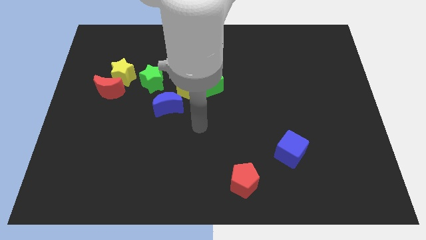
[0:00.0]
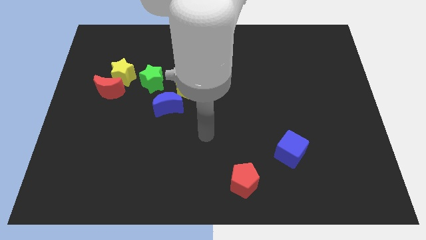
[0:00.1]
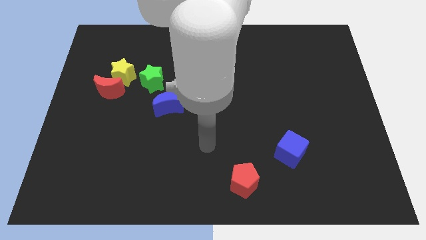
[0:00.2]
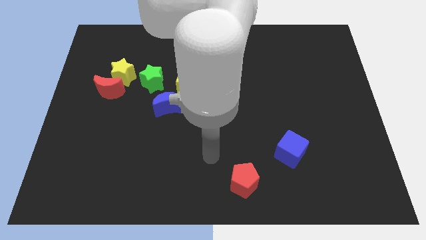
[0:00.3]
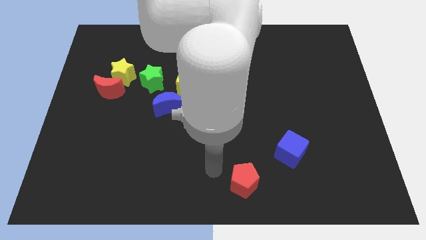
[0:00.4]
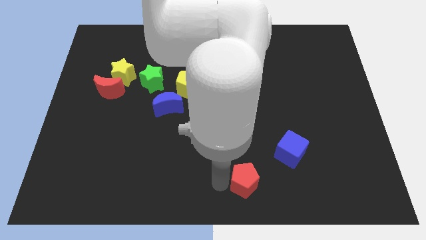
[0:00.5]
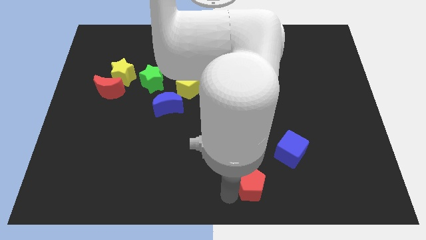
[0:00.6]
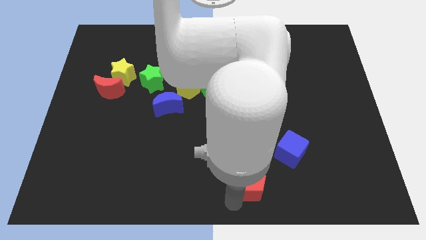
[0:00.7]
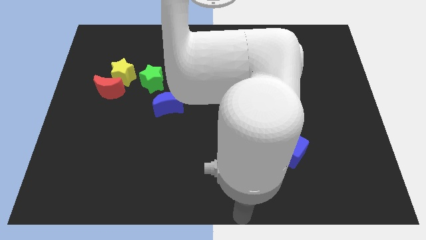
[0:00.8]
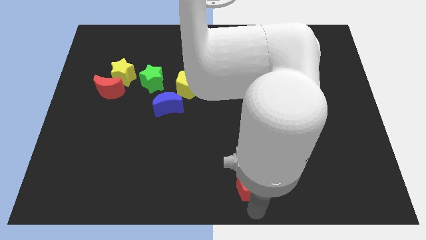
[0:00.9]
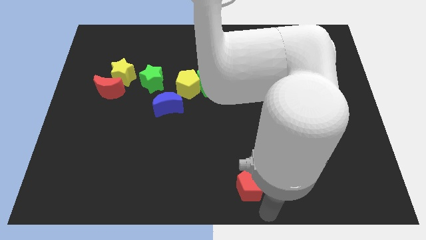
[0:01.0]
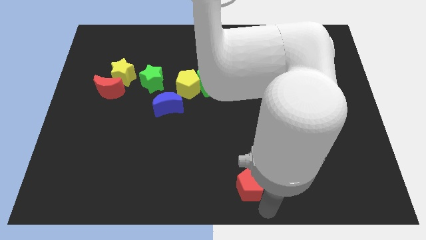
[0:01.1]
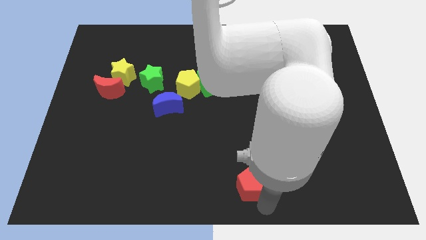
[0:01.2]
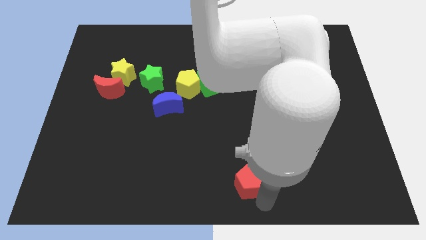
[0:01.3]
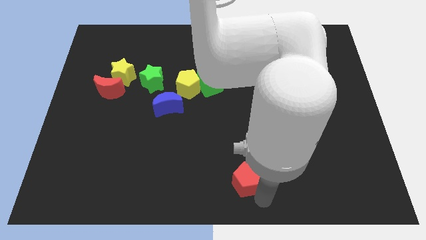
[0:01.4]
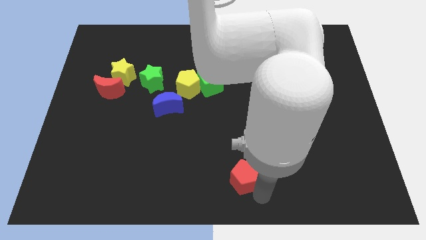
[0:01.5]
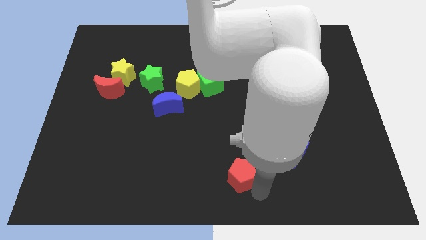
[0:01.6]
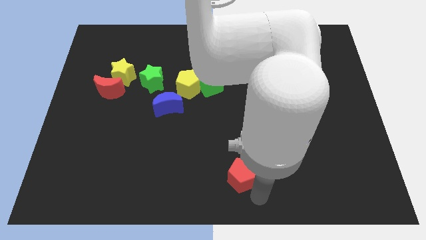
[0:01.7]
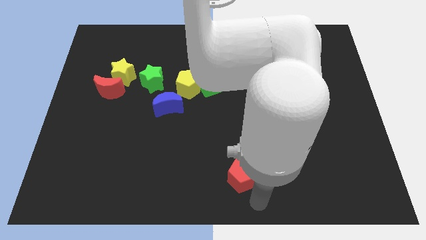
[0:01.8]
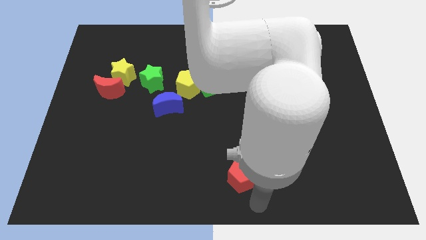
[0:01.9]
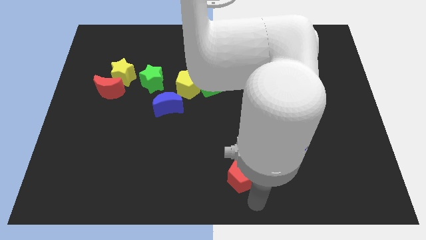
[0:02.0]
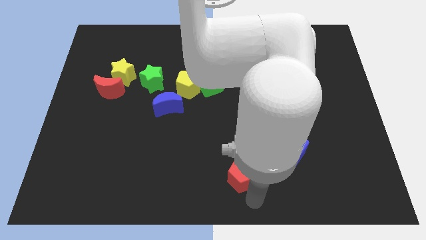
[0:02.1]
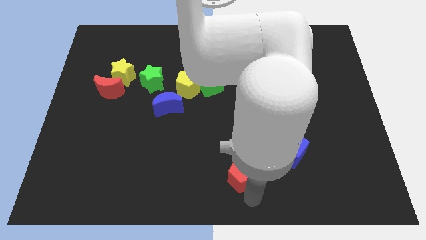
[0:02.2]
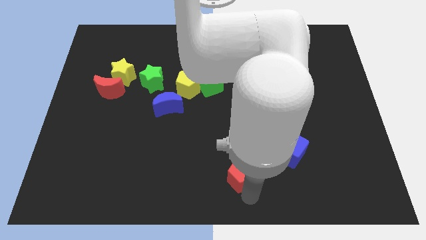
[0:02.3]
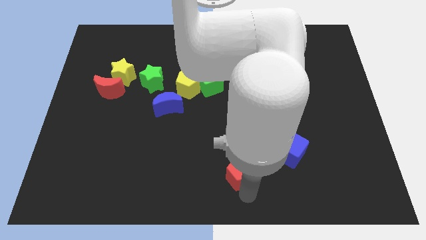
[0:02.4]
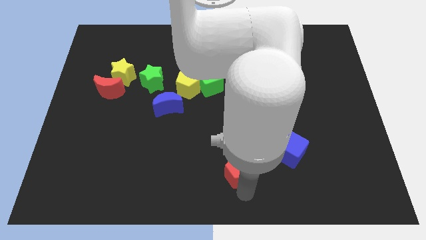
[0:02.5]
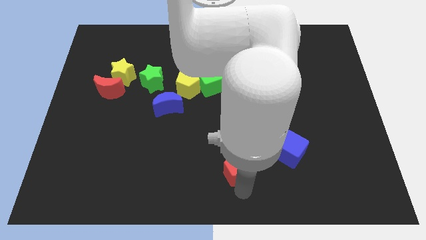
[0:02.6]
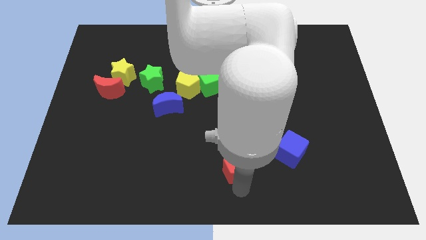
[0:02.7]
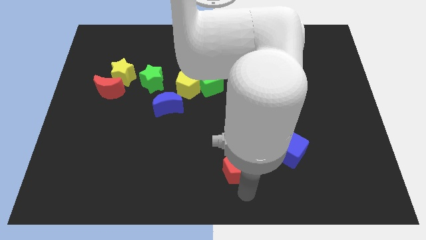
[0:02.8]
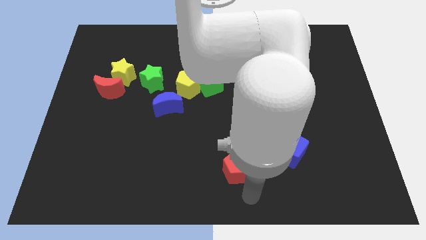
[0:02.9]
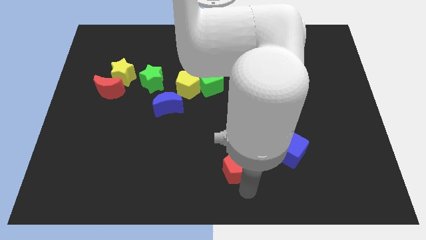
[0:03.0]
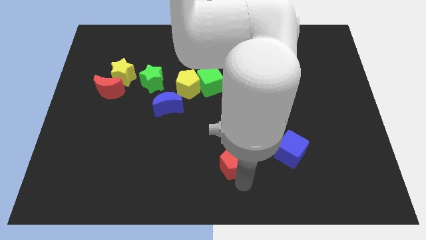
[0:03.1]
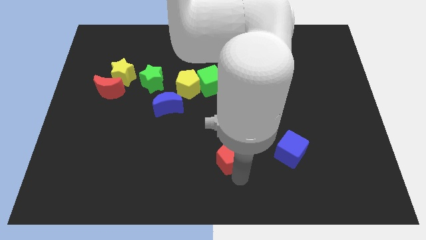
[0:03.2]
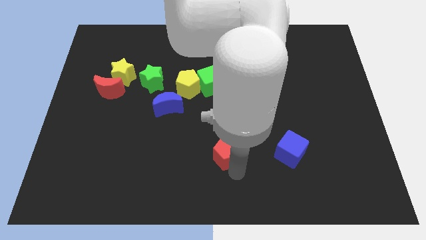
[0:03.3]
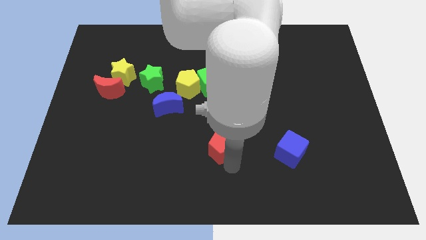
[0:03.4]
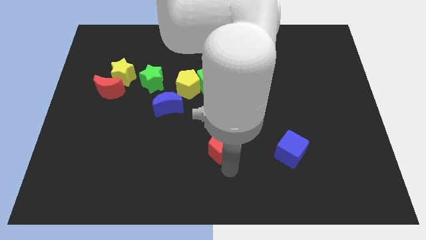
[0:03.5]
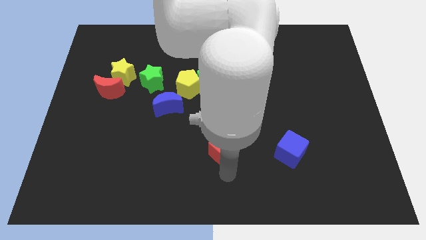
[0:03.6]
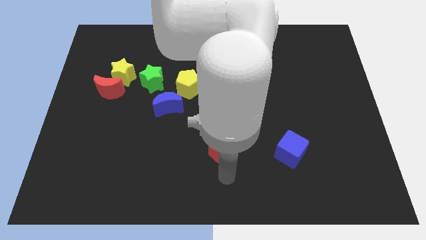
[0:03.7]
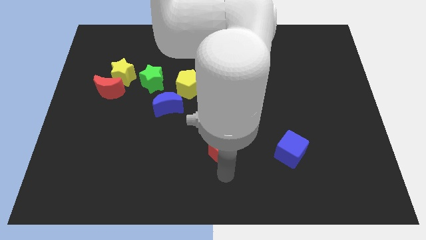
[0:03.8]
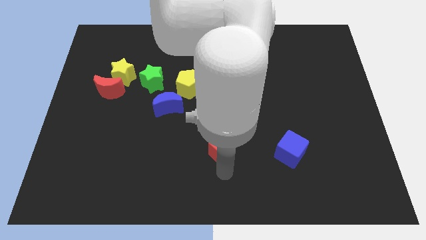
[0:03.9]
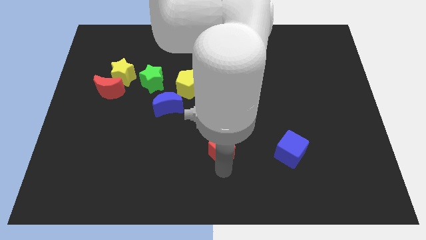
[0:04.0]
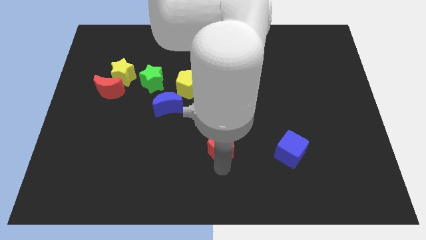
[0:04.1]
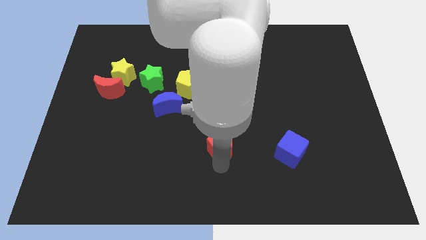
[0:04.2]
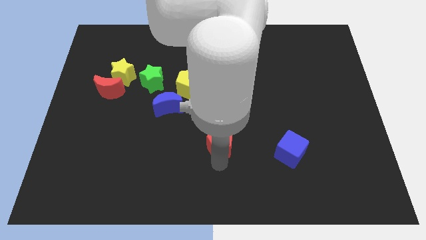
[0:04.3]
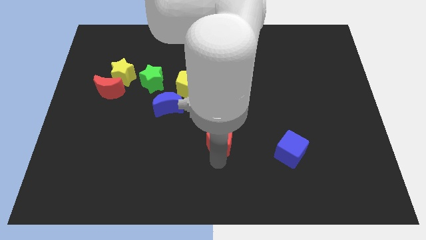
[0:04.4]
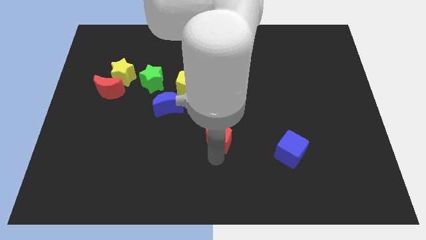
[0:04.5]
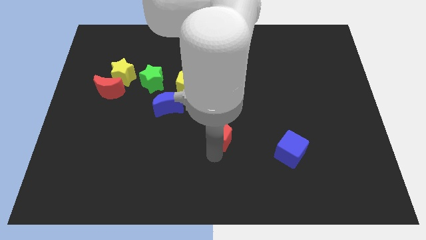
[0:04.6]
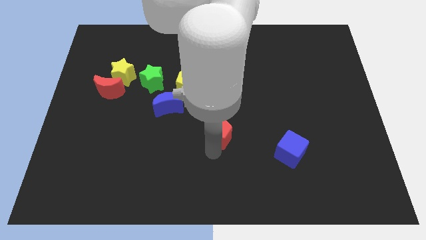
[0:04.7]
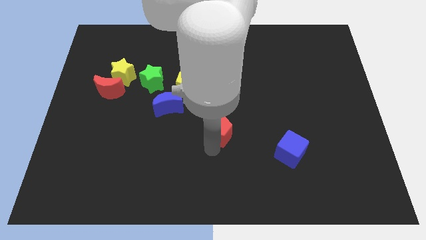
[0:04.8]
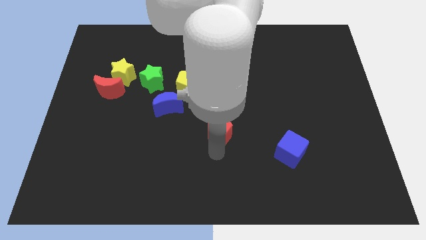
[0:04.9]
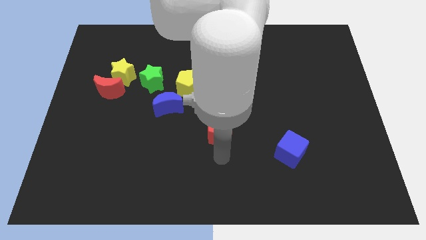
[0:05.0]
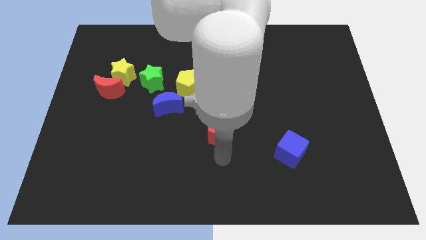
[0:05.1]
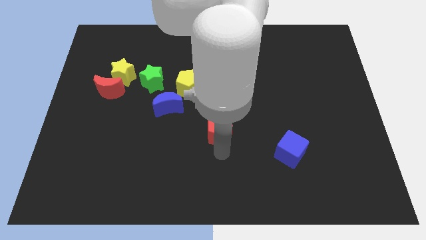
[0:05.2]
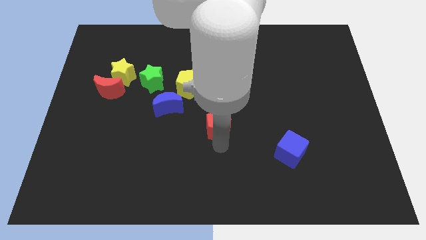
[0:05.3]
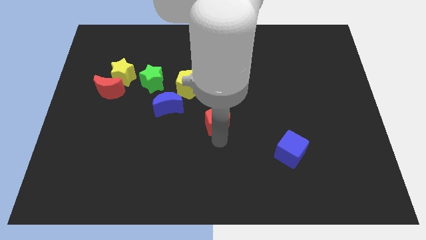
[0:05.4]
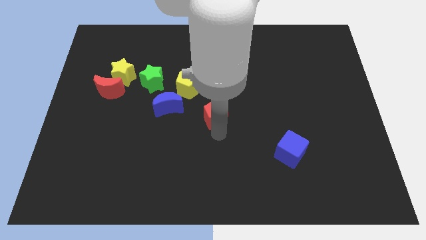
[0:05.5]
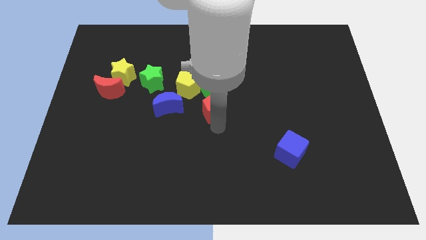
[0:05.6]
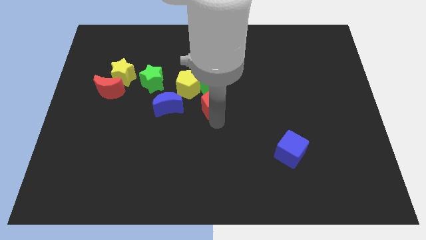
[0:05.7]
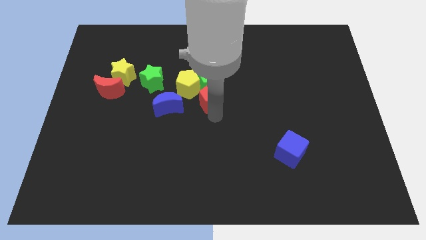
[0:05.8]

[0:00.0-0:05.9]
slide the red pentagon to the green cube

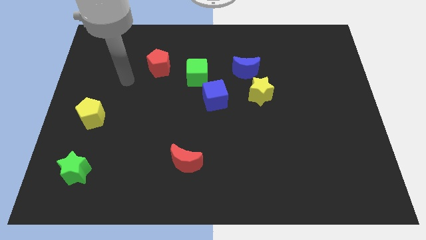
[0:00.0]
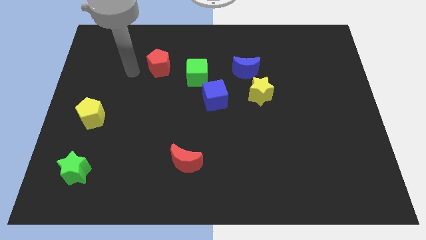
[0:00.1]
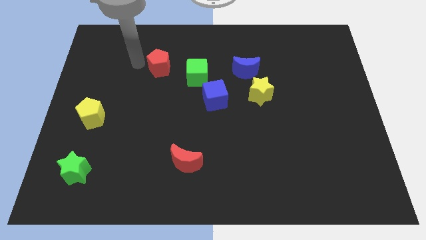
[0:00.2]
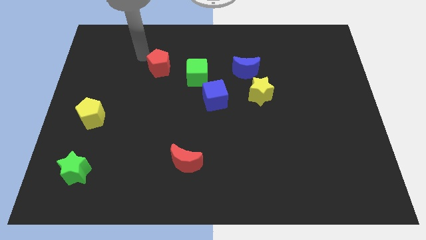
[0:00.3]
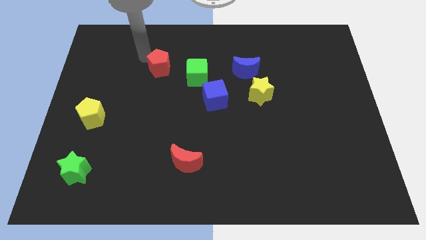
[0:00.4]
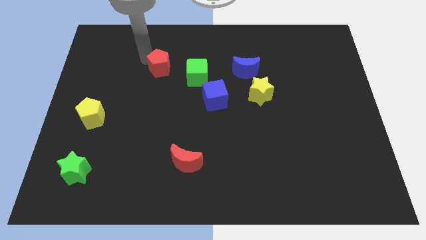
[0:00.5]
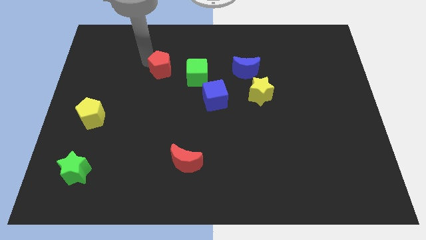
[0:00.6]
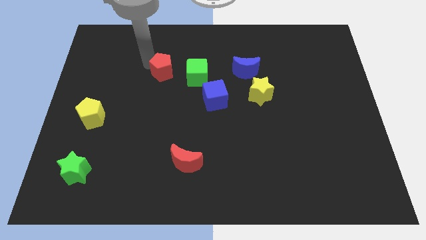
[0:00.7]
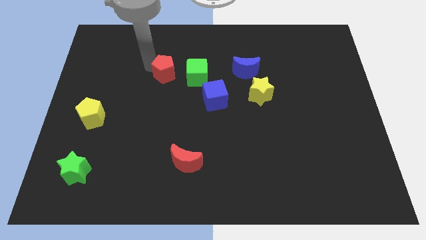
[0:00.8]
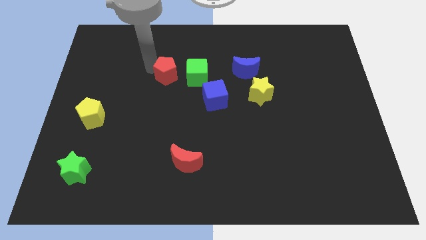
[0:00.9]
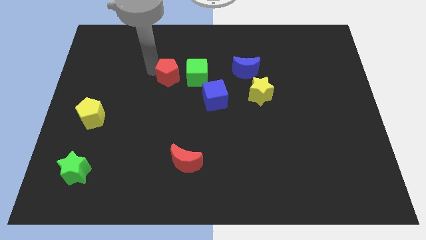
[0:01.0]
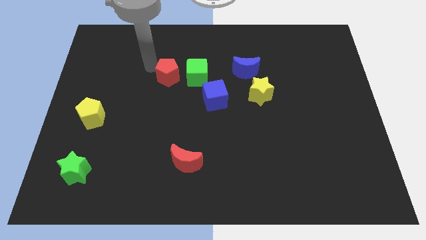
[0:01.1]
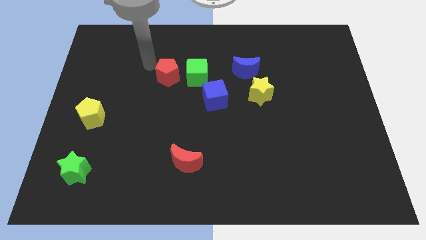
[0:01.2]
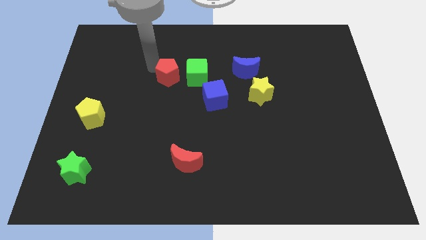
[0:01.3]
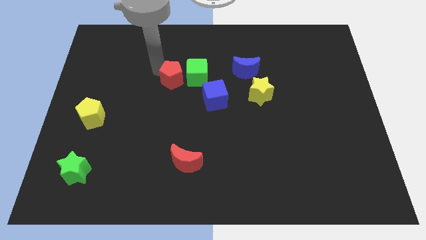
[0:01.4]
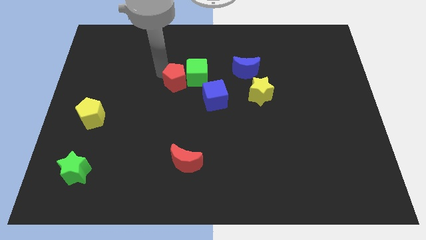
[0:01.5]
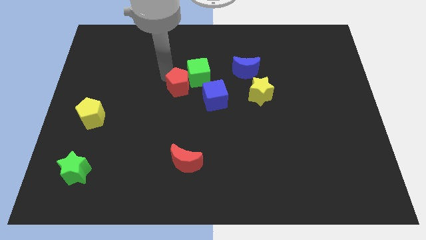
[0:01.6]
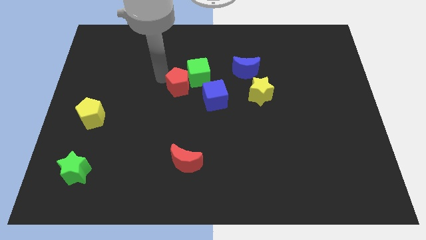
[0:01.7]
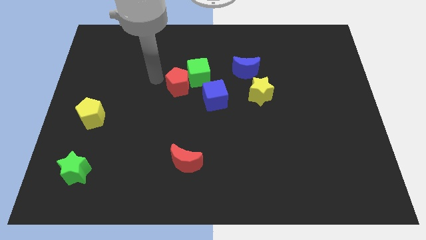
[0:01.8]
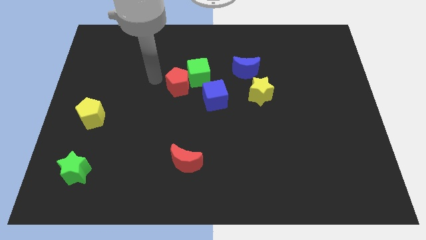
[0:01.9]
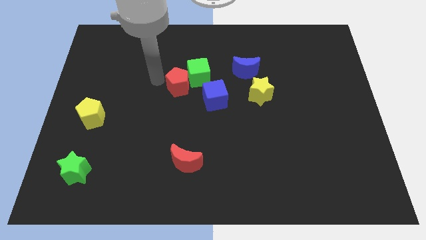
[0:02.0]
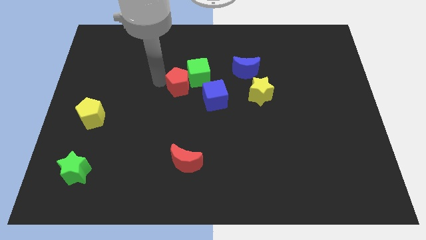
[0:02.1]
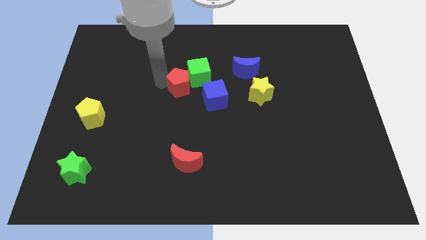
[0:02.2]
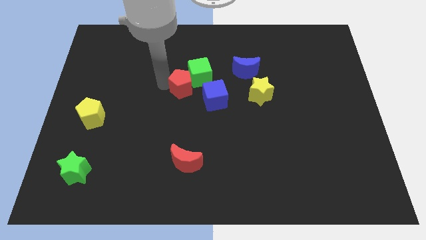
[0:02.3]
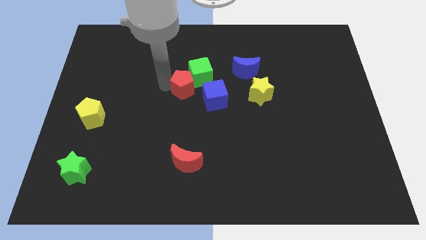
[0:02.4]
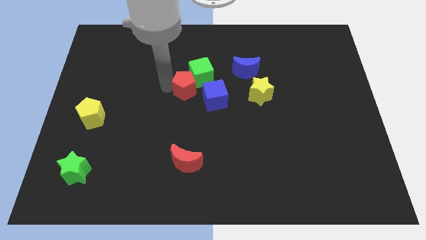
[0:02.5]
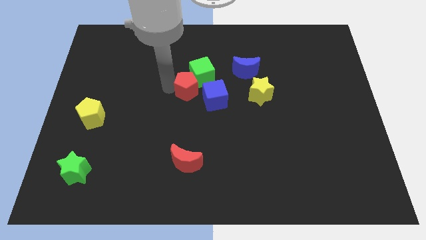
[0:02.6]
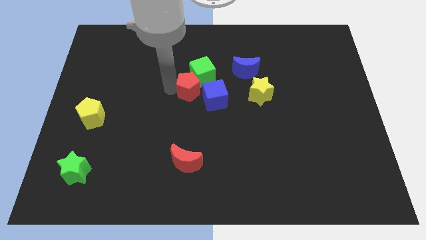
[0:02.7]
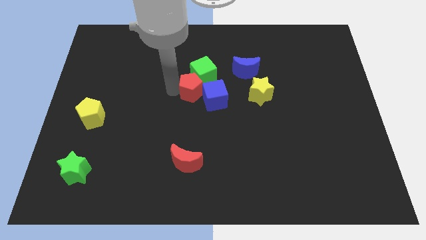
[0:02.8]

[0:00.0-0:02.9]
slide the red pentagon to the blue cube
